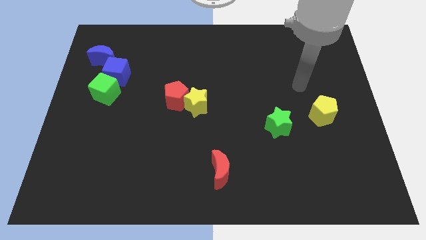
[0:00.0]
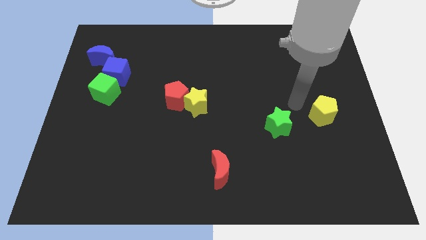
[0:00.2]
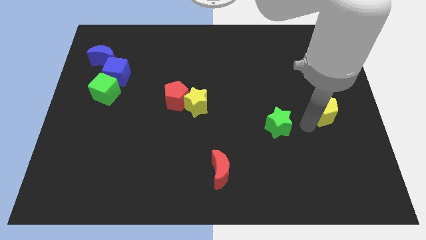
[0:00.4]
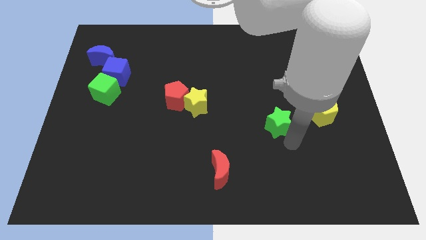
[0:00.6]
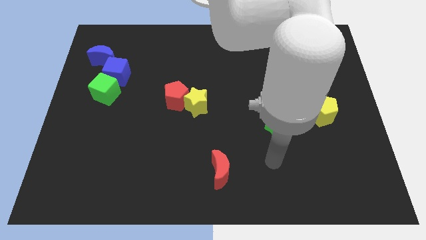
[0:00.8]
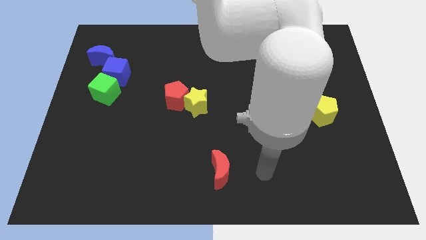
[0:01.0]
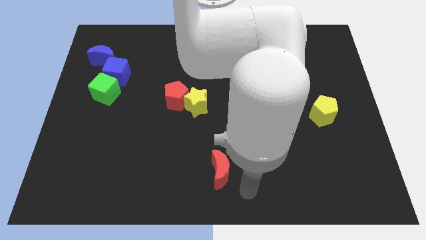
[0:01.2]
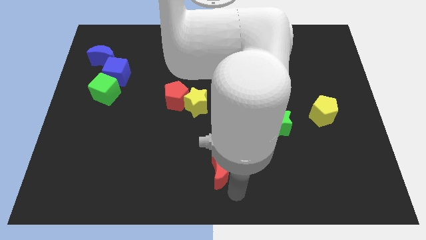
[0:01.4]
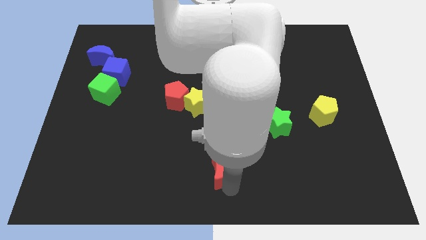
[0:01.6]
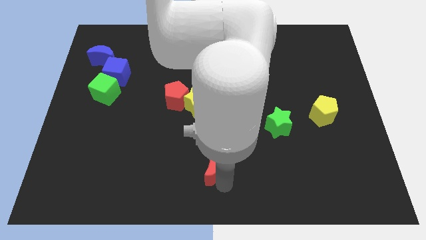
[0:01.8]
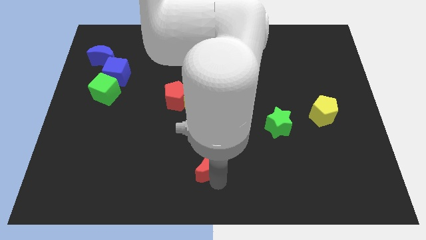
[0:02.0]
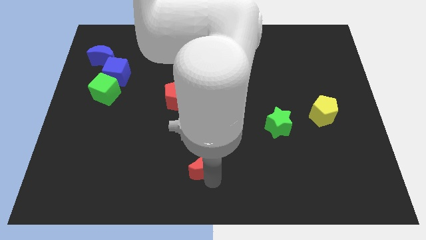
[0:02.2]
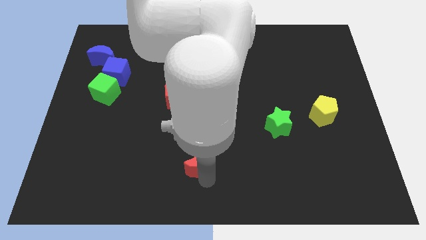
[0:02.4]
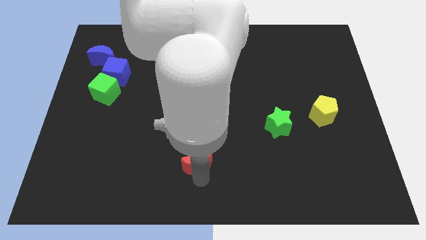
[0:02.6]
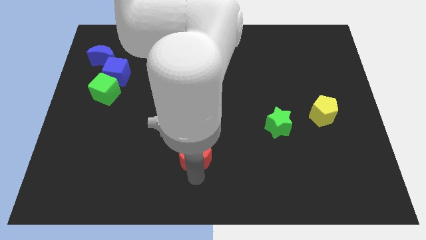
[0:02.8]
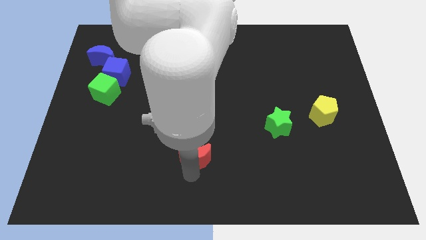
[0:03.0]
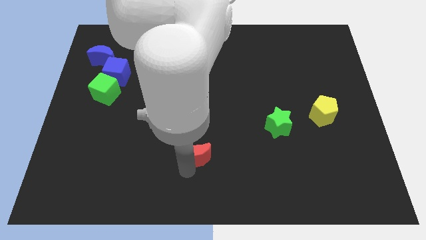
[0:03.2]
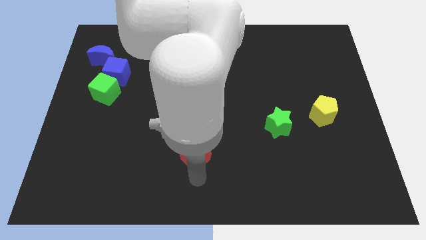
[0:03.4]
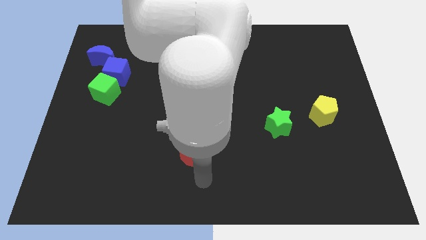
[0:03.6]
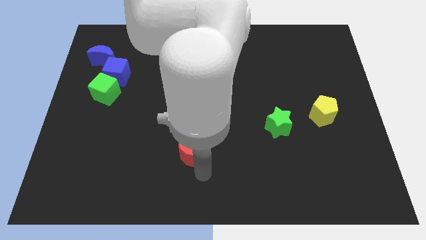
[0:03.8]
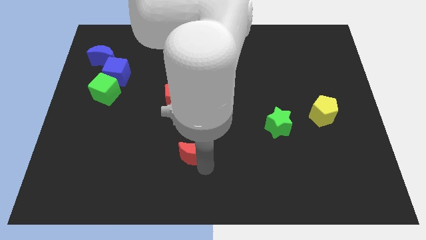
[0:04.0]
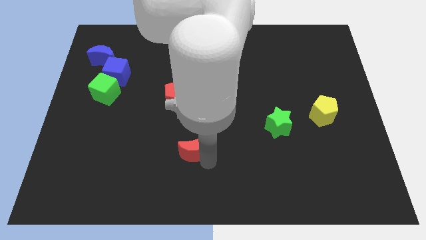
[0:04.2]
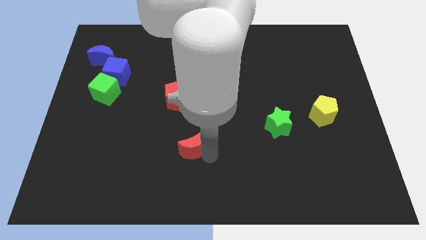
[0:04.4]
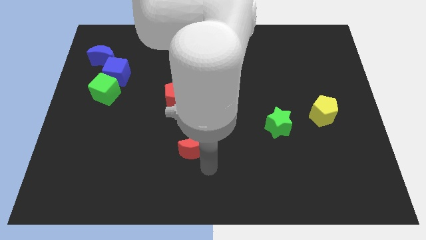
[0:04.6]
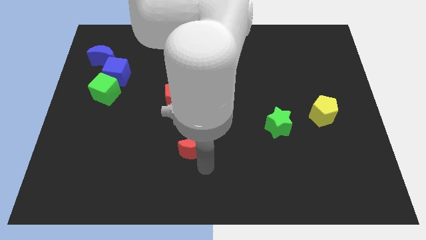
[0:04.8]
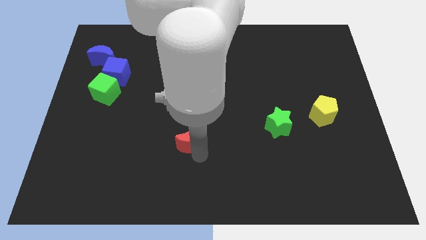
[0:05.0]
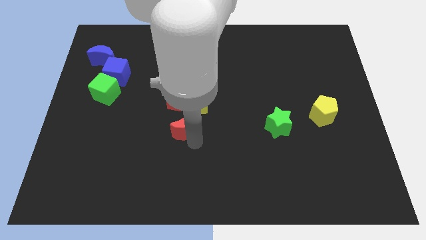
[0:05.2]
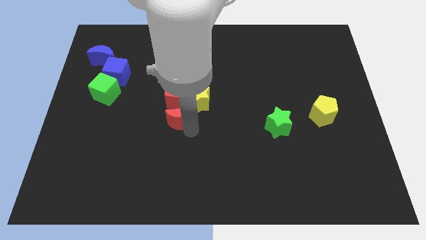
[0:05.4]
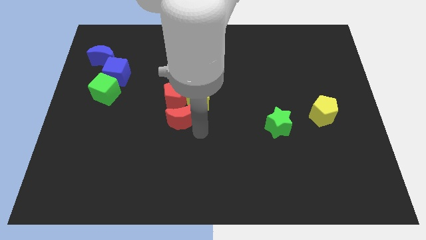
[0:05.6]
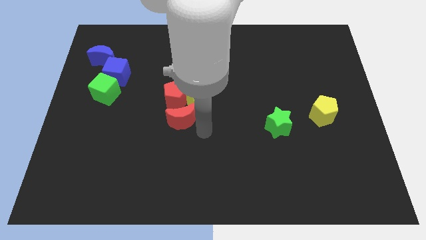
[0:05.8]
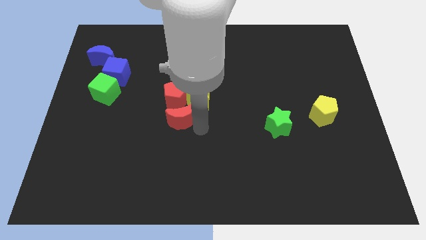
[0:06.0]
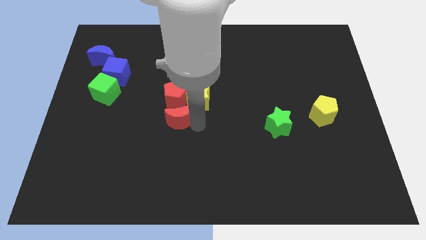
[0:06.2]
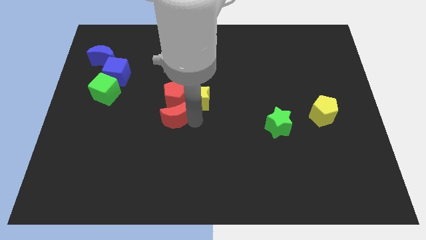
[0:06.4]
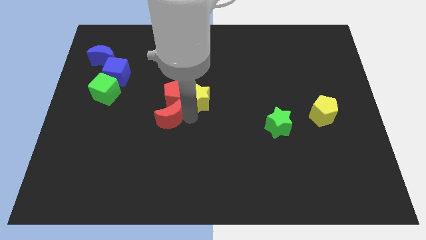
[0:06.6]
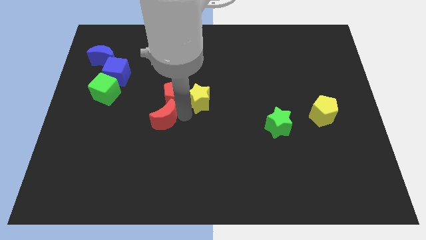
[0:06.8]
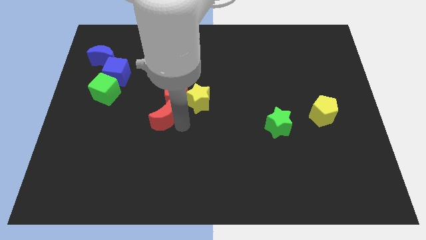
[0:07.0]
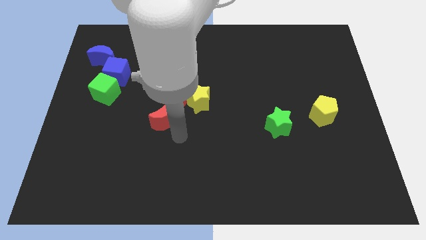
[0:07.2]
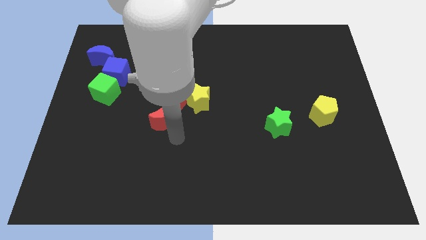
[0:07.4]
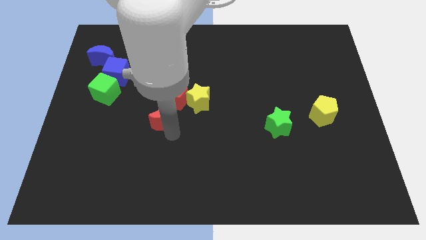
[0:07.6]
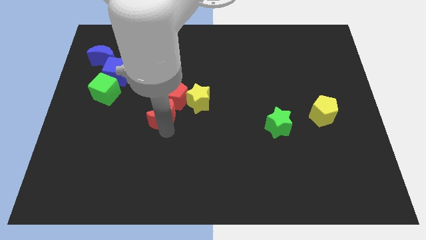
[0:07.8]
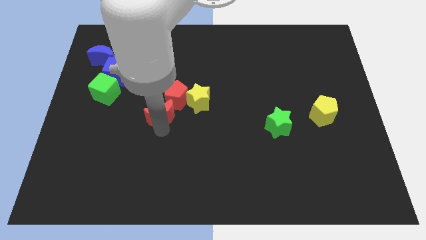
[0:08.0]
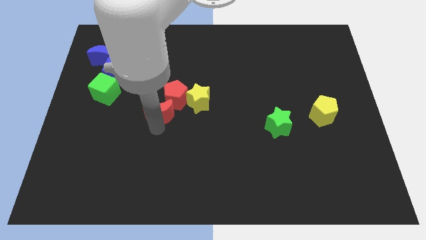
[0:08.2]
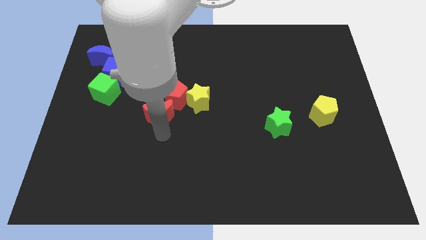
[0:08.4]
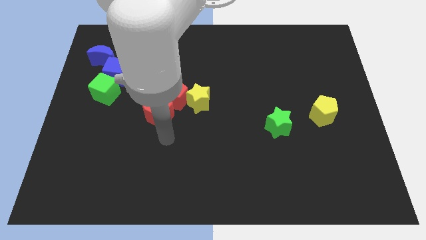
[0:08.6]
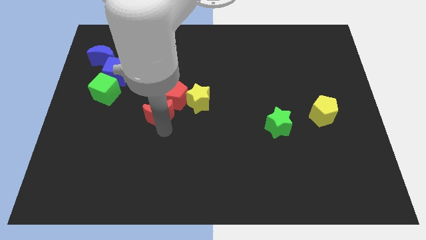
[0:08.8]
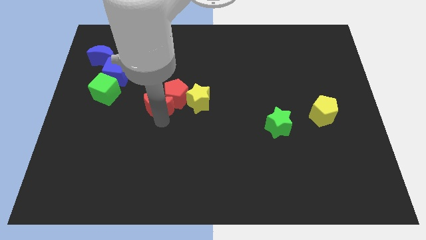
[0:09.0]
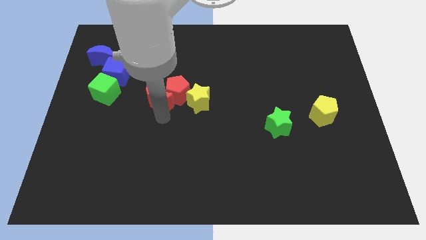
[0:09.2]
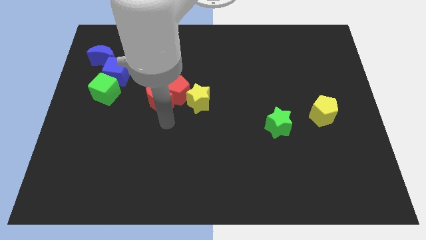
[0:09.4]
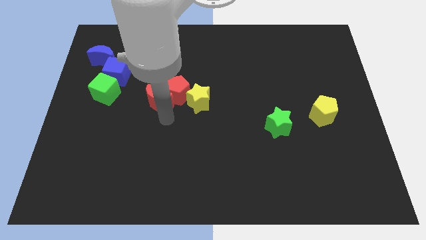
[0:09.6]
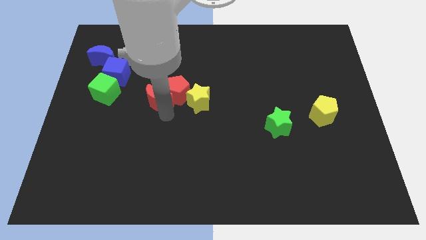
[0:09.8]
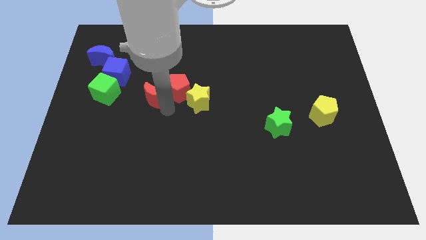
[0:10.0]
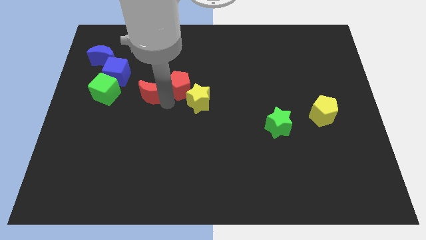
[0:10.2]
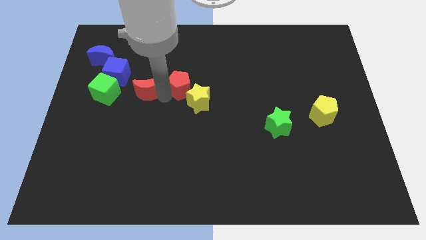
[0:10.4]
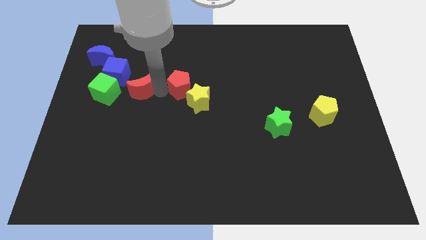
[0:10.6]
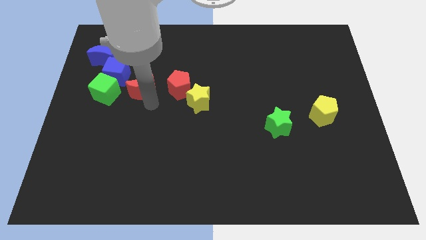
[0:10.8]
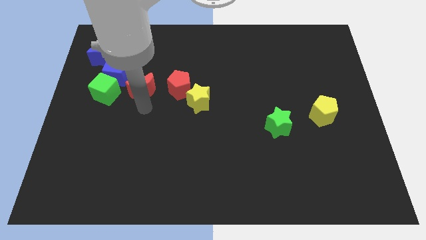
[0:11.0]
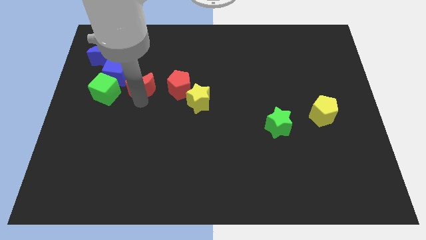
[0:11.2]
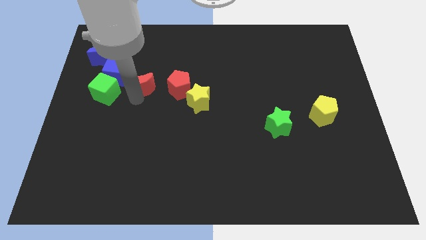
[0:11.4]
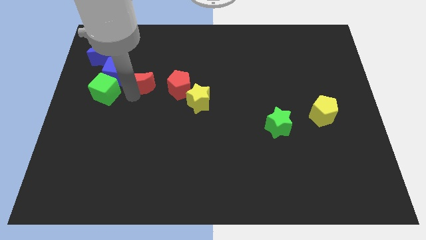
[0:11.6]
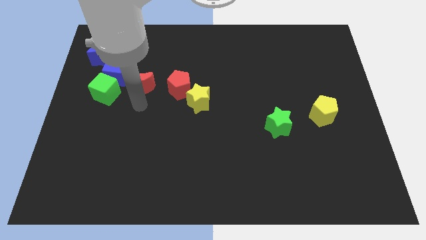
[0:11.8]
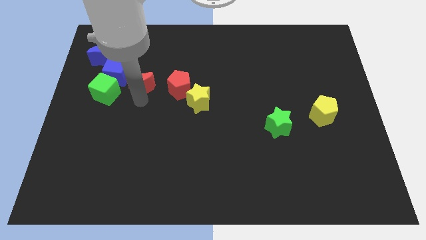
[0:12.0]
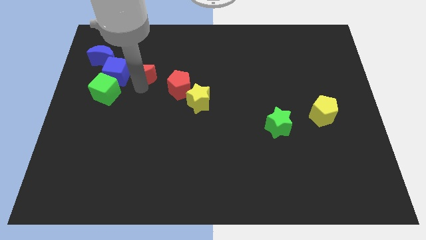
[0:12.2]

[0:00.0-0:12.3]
slide the red moon diagonally up and to the right of the blue cube

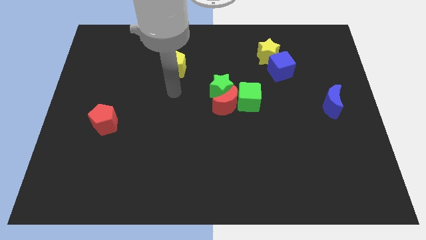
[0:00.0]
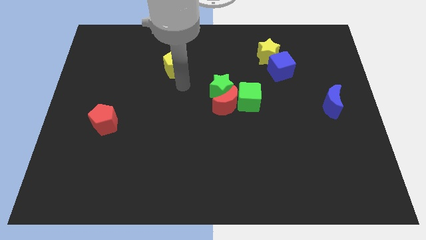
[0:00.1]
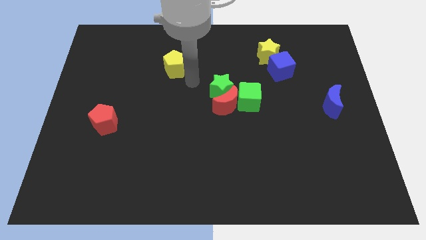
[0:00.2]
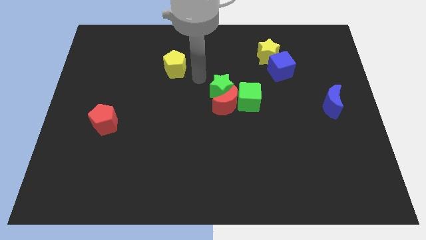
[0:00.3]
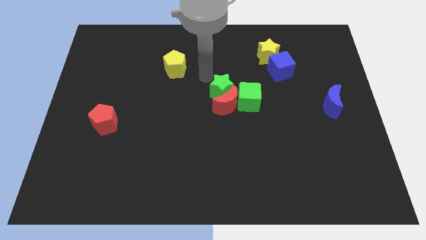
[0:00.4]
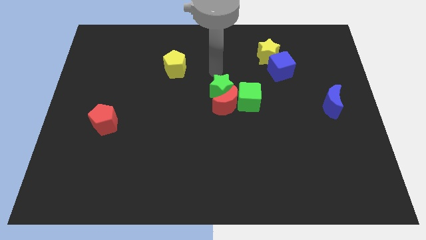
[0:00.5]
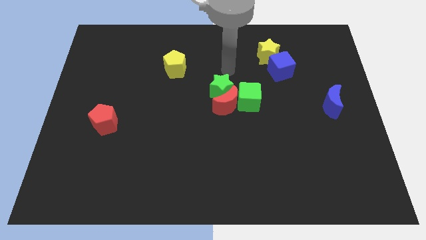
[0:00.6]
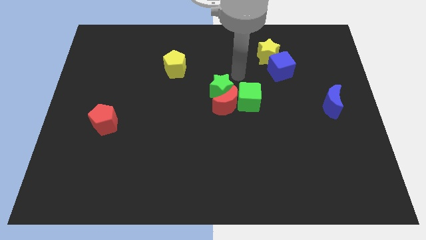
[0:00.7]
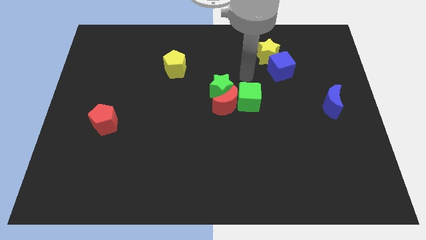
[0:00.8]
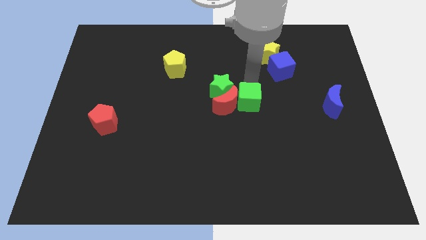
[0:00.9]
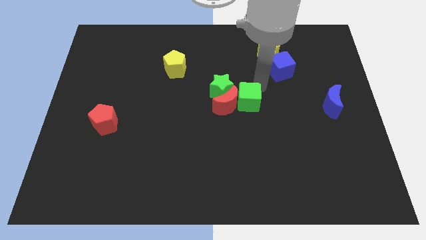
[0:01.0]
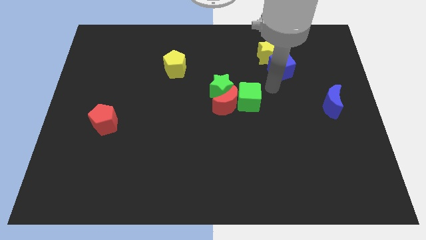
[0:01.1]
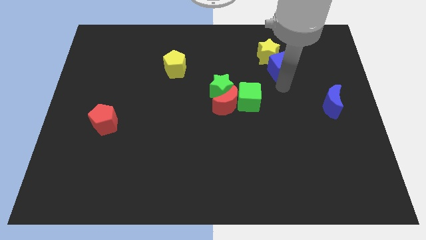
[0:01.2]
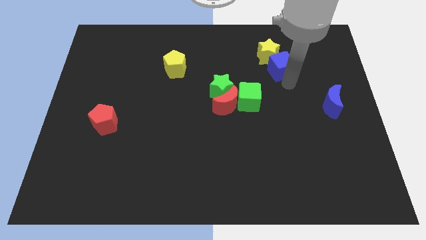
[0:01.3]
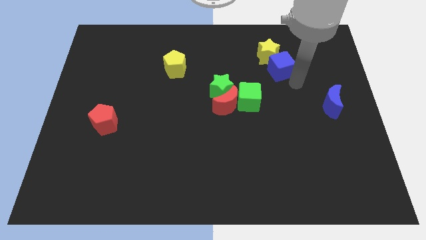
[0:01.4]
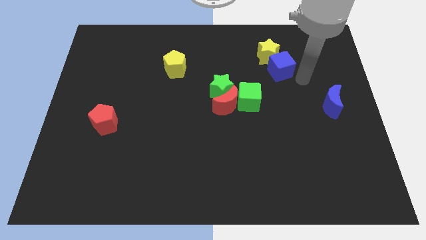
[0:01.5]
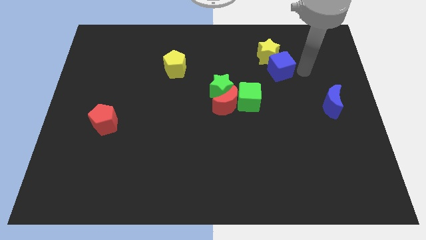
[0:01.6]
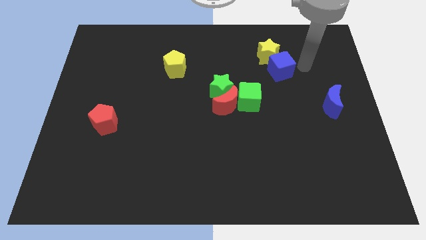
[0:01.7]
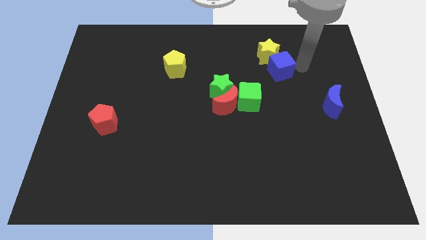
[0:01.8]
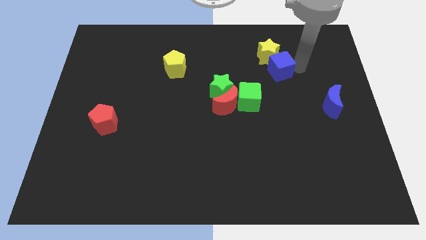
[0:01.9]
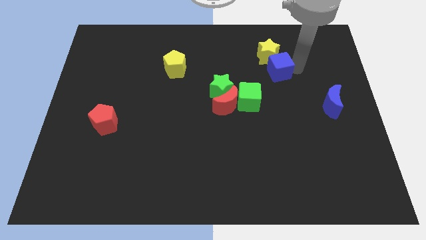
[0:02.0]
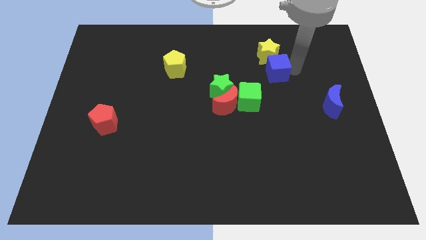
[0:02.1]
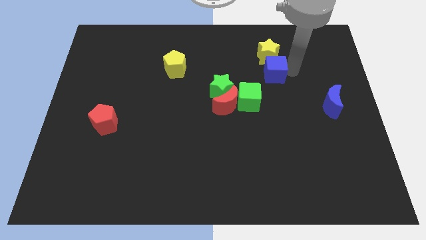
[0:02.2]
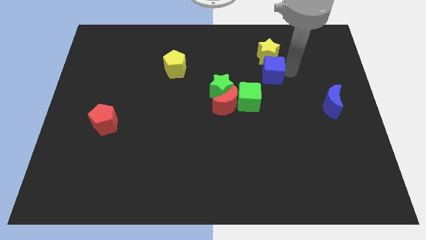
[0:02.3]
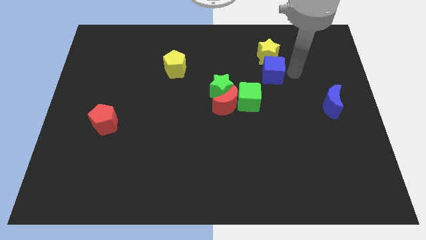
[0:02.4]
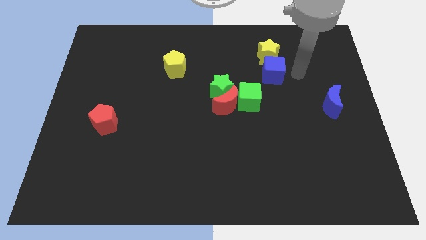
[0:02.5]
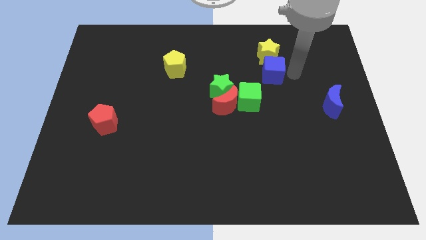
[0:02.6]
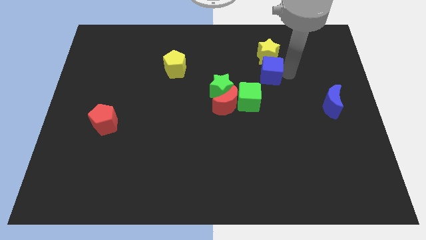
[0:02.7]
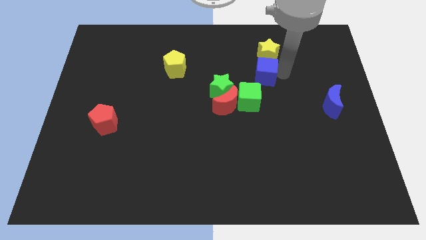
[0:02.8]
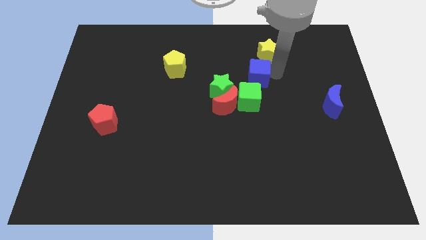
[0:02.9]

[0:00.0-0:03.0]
push the blue cube diagonally up and to the right of the green star
